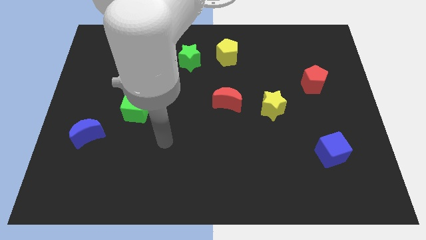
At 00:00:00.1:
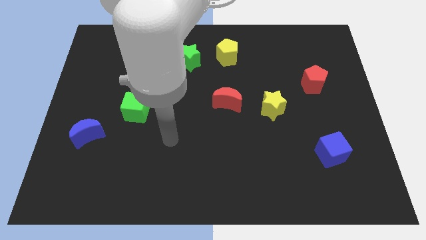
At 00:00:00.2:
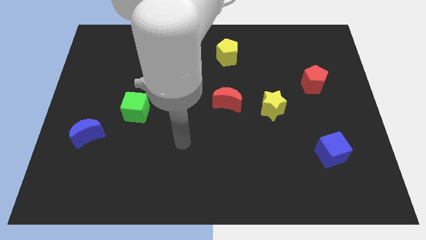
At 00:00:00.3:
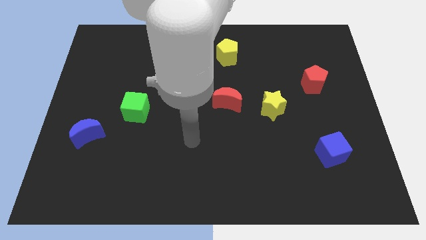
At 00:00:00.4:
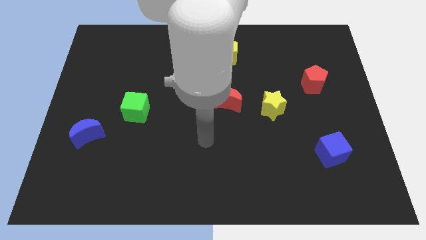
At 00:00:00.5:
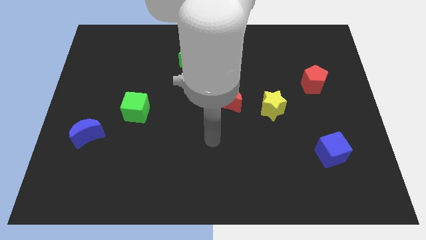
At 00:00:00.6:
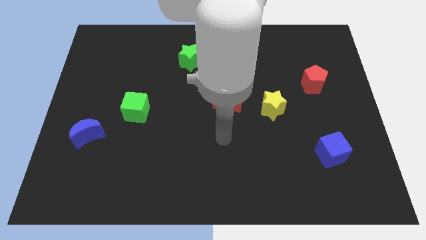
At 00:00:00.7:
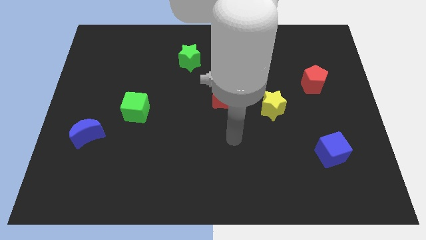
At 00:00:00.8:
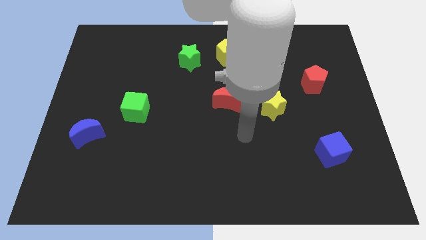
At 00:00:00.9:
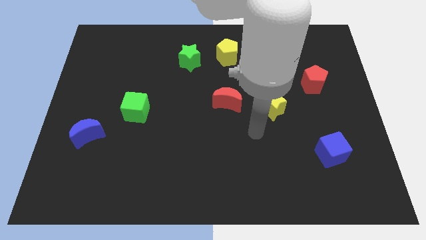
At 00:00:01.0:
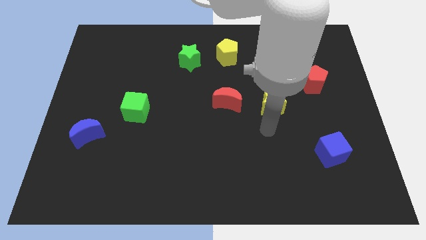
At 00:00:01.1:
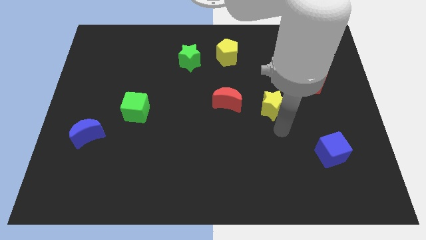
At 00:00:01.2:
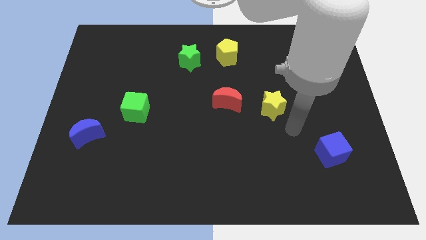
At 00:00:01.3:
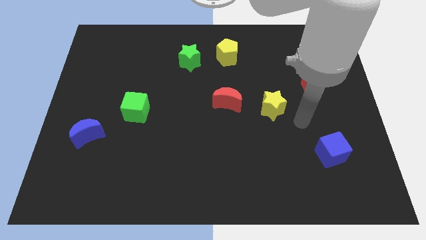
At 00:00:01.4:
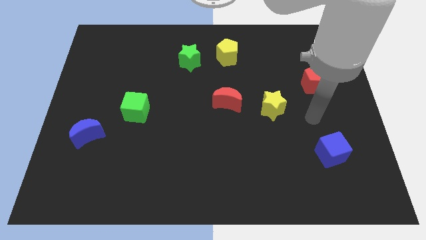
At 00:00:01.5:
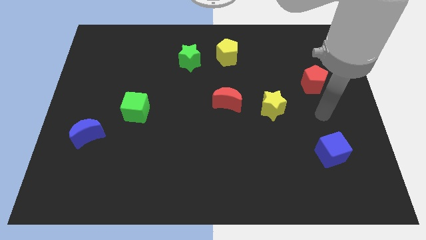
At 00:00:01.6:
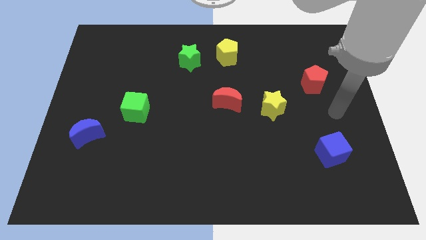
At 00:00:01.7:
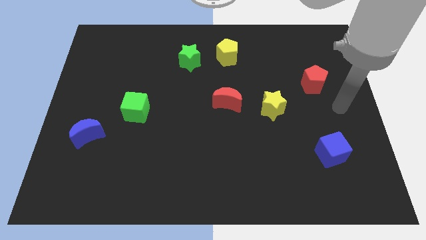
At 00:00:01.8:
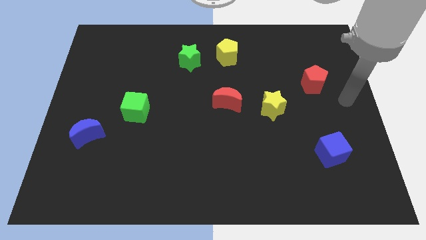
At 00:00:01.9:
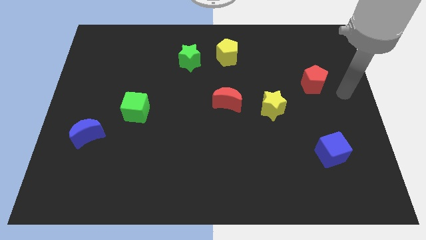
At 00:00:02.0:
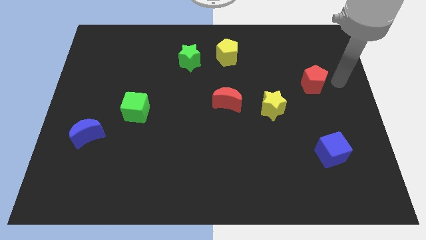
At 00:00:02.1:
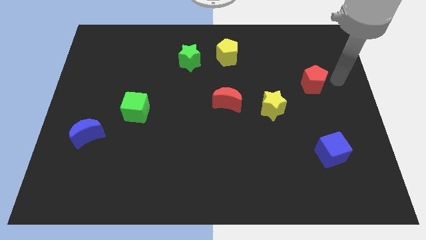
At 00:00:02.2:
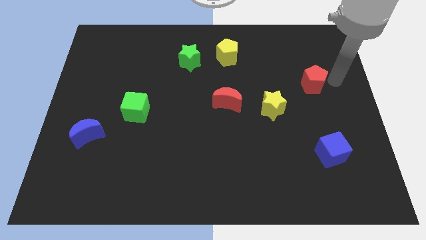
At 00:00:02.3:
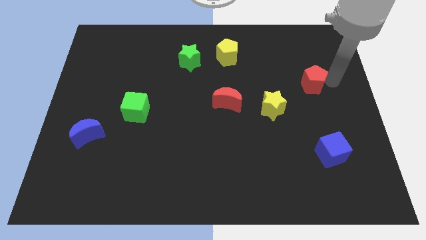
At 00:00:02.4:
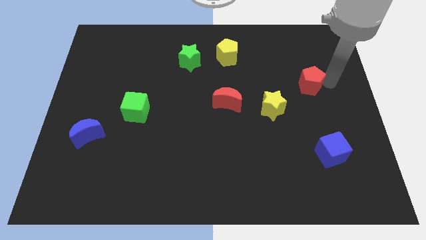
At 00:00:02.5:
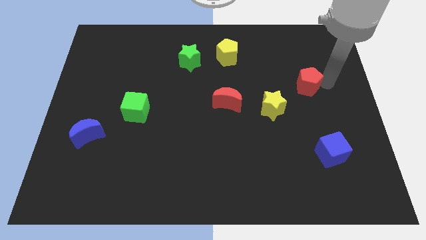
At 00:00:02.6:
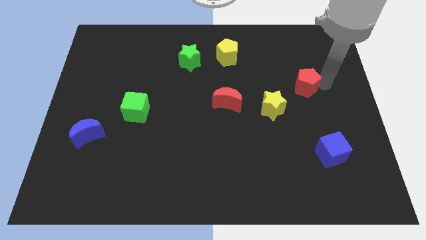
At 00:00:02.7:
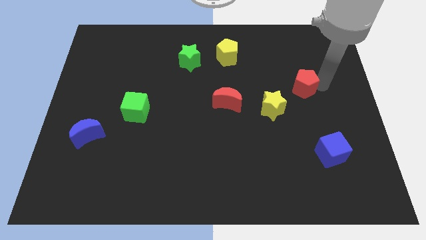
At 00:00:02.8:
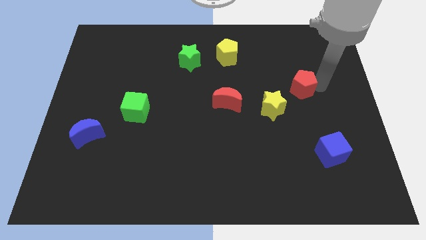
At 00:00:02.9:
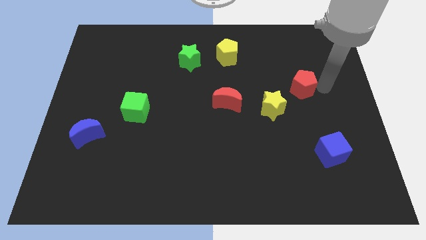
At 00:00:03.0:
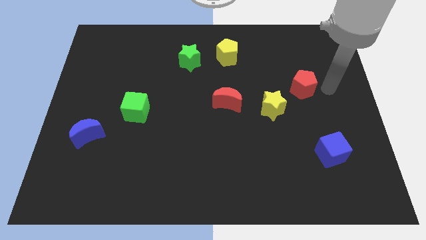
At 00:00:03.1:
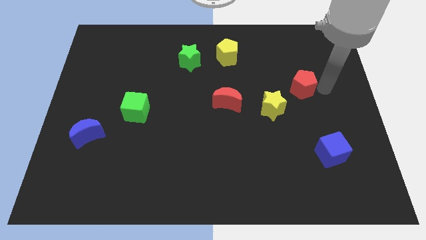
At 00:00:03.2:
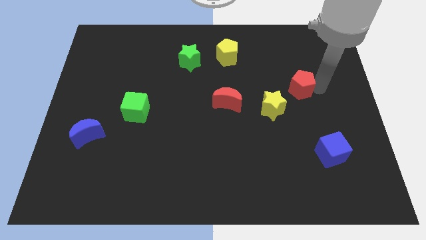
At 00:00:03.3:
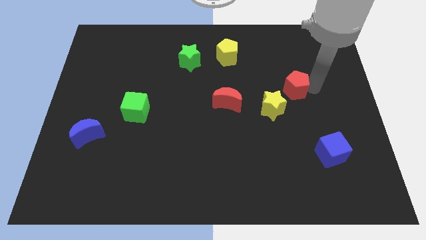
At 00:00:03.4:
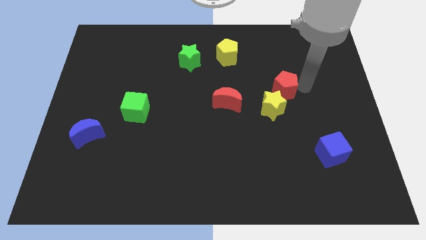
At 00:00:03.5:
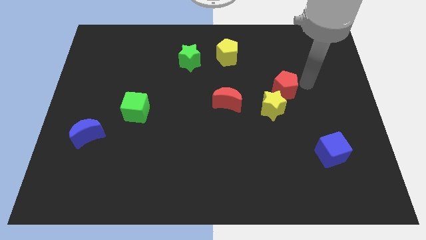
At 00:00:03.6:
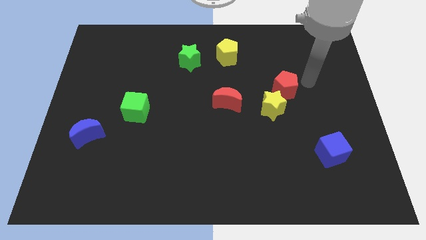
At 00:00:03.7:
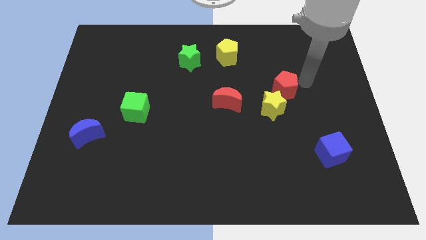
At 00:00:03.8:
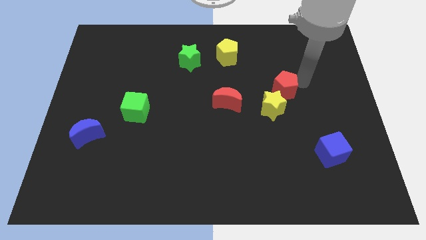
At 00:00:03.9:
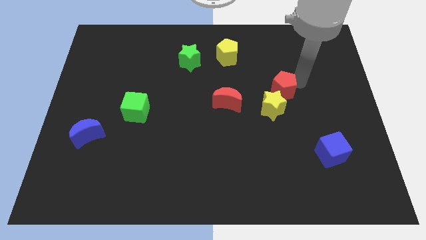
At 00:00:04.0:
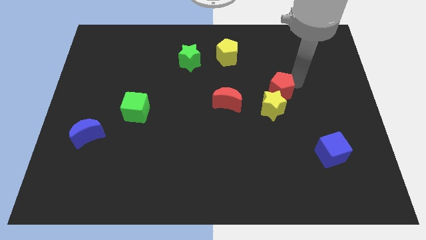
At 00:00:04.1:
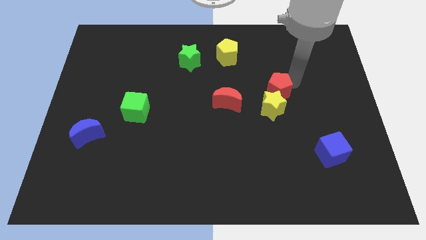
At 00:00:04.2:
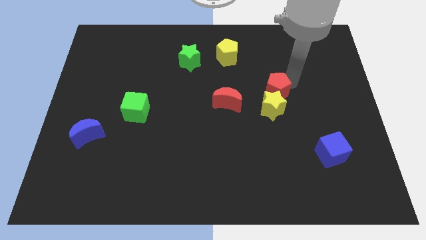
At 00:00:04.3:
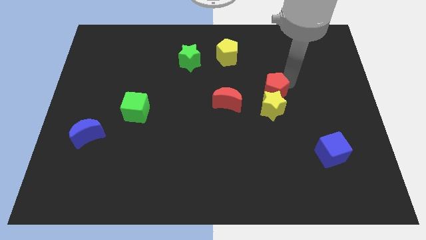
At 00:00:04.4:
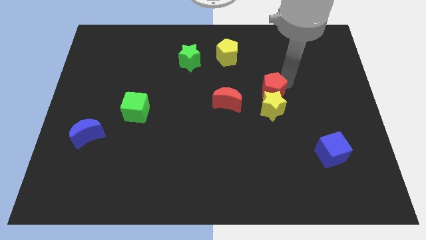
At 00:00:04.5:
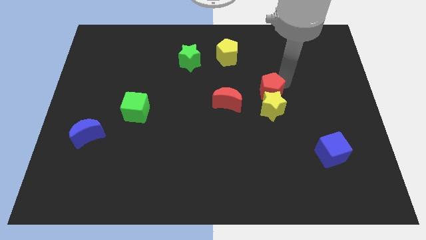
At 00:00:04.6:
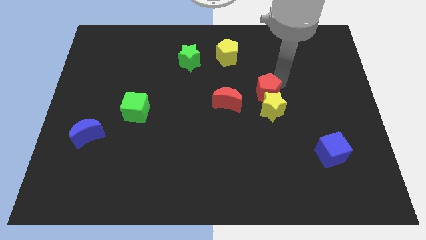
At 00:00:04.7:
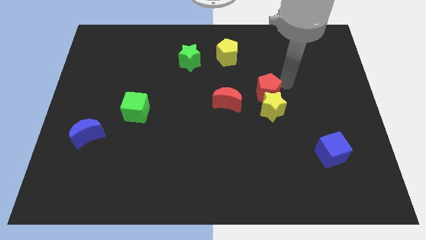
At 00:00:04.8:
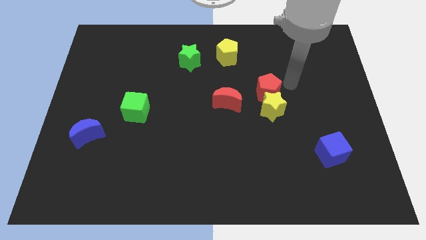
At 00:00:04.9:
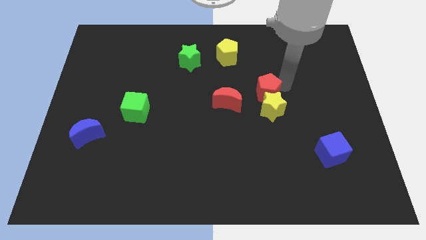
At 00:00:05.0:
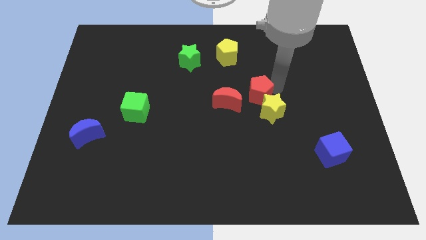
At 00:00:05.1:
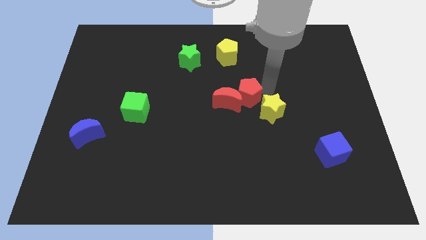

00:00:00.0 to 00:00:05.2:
push the red pentagon next to the red moon

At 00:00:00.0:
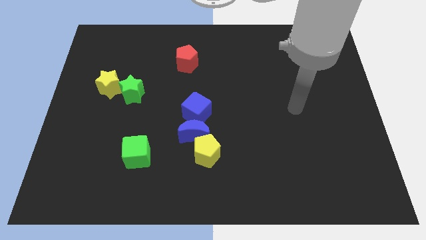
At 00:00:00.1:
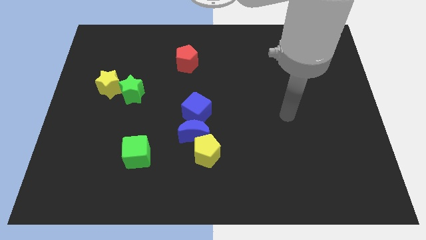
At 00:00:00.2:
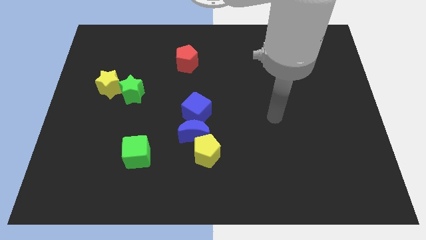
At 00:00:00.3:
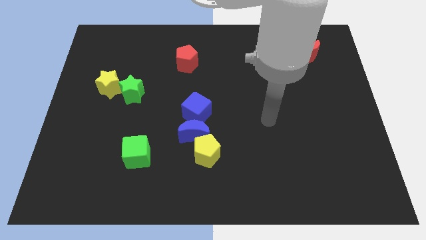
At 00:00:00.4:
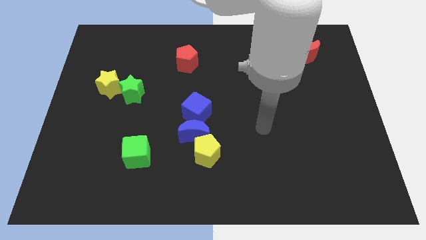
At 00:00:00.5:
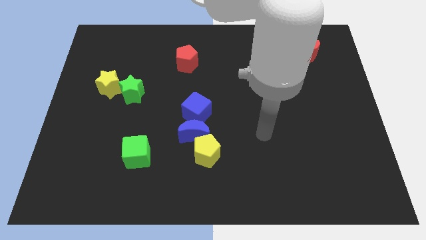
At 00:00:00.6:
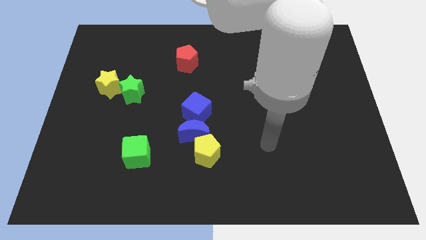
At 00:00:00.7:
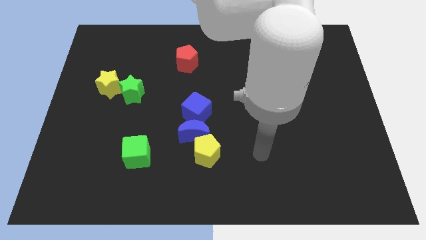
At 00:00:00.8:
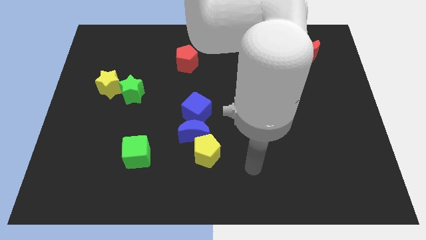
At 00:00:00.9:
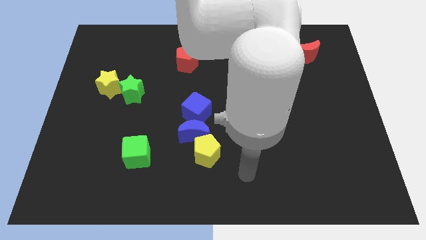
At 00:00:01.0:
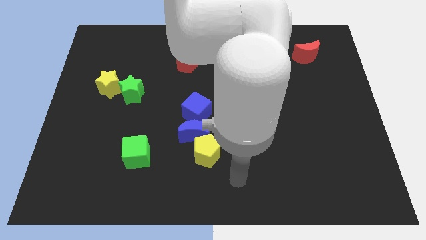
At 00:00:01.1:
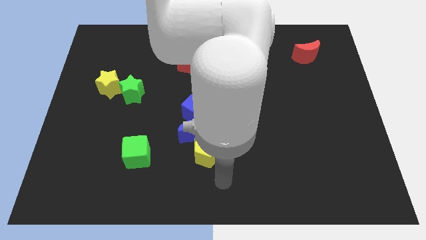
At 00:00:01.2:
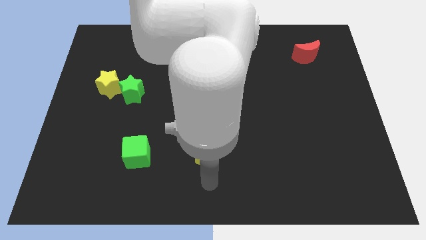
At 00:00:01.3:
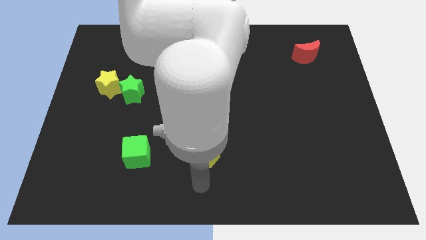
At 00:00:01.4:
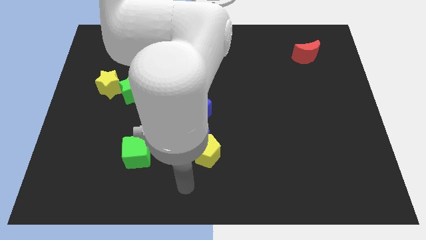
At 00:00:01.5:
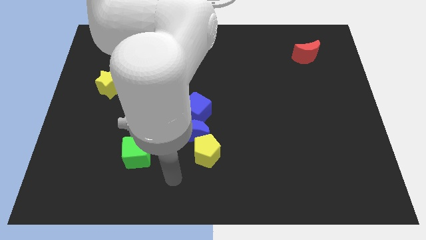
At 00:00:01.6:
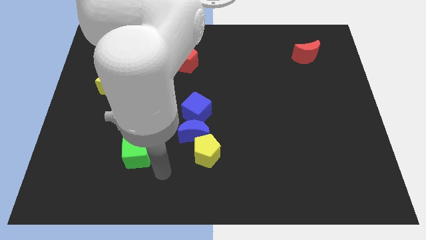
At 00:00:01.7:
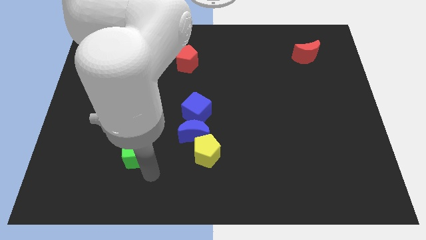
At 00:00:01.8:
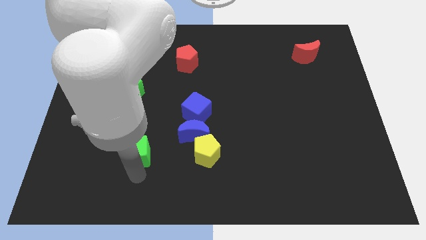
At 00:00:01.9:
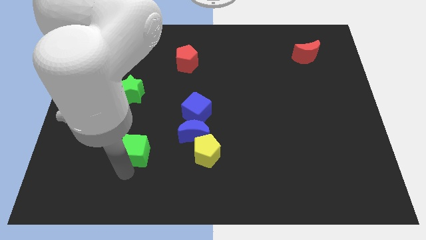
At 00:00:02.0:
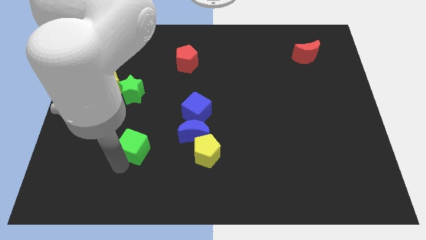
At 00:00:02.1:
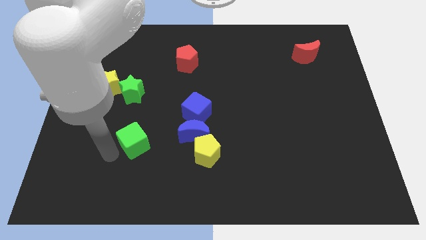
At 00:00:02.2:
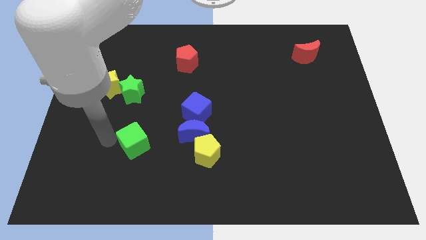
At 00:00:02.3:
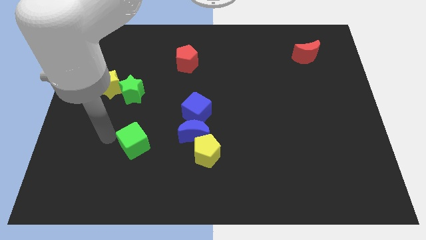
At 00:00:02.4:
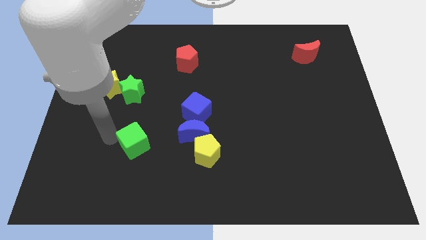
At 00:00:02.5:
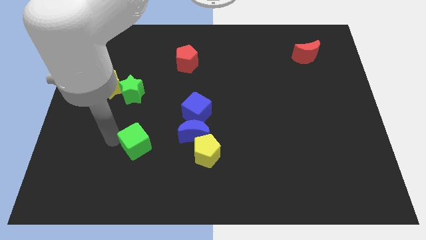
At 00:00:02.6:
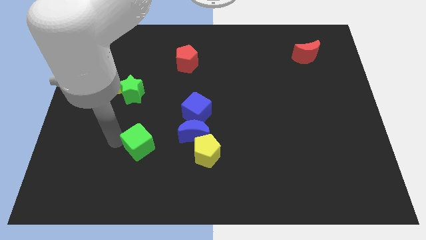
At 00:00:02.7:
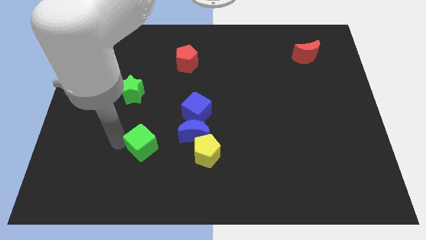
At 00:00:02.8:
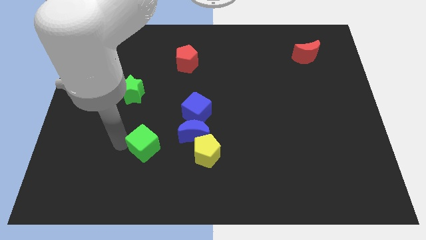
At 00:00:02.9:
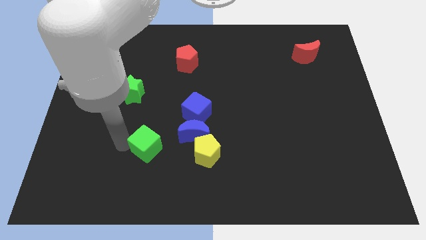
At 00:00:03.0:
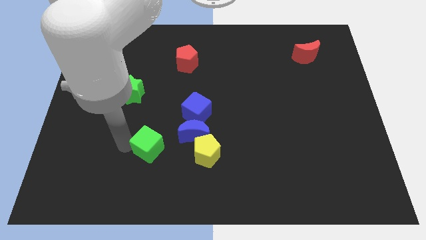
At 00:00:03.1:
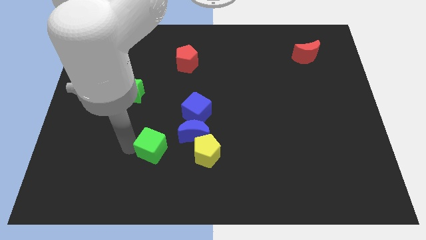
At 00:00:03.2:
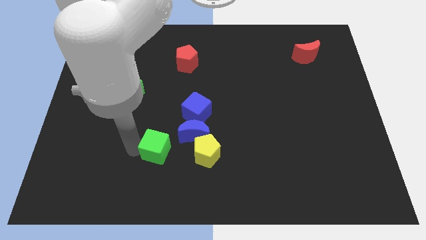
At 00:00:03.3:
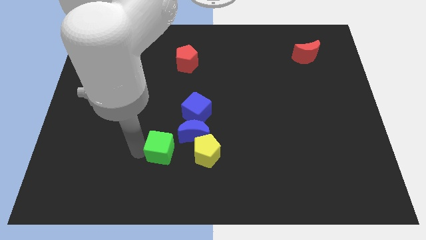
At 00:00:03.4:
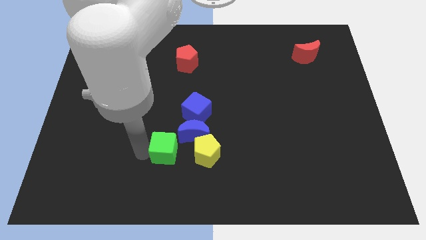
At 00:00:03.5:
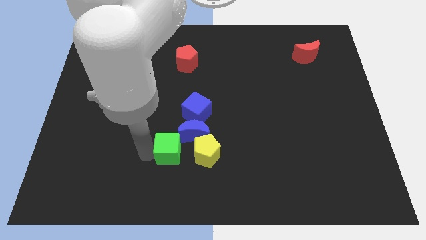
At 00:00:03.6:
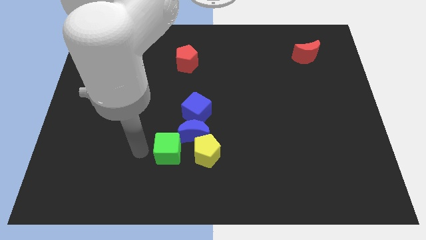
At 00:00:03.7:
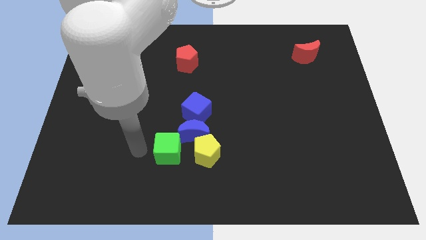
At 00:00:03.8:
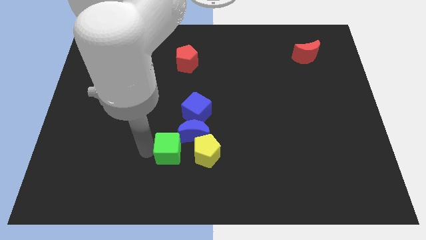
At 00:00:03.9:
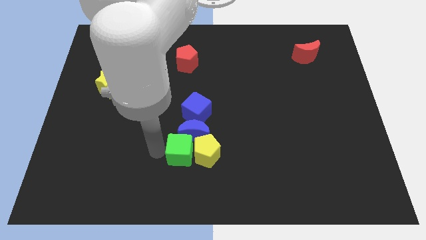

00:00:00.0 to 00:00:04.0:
put the green cube to the yellow pentagon
